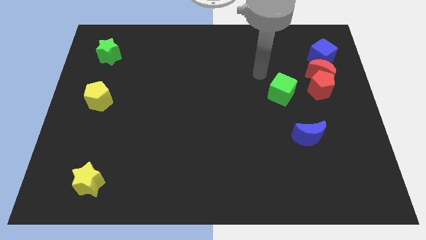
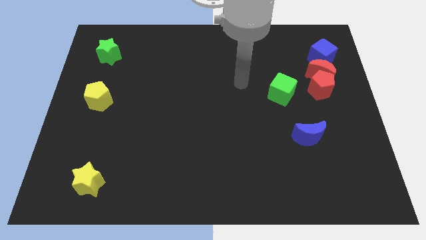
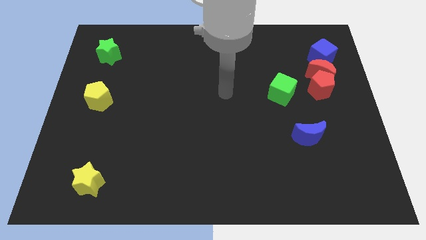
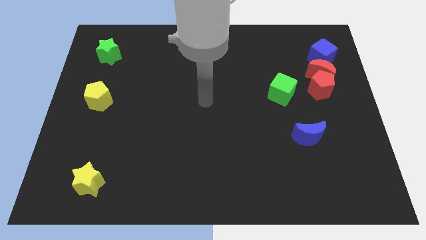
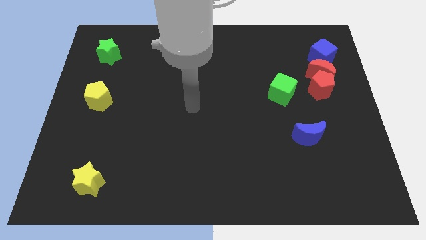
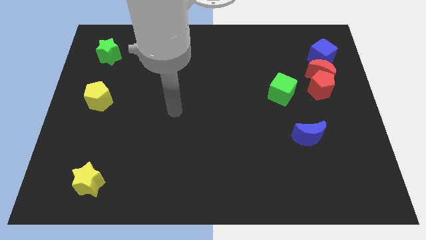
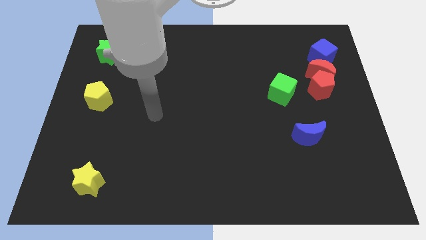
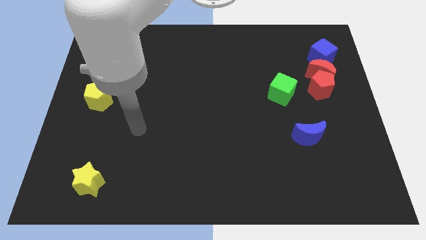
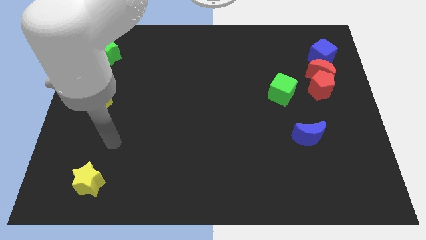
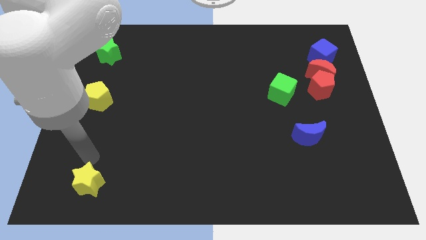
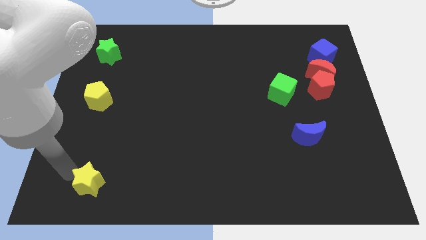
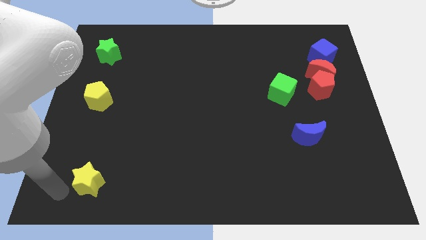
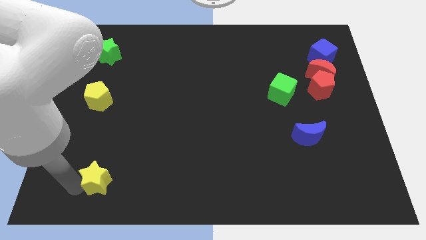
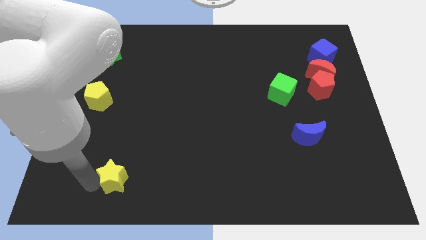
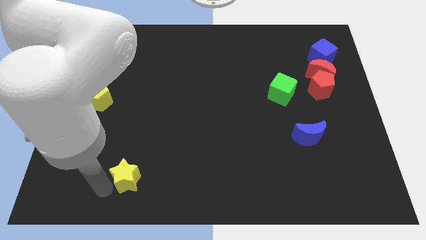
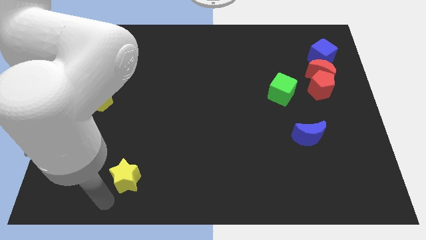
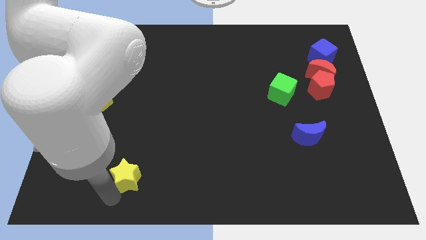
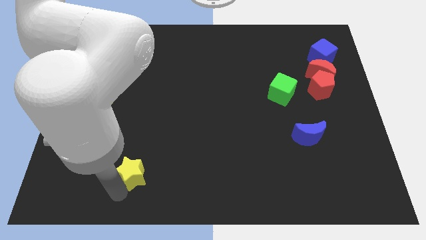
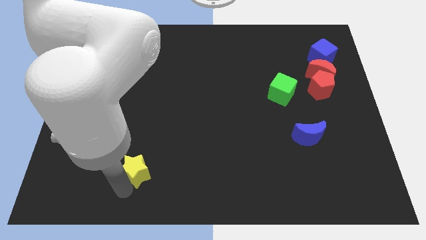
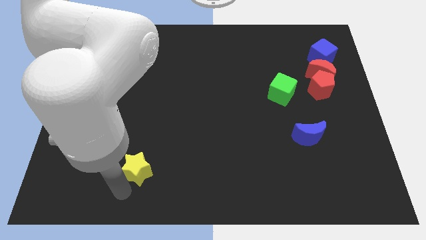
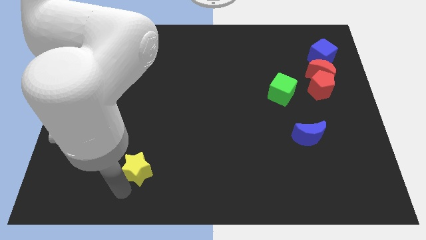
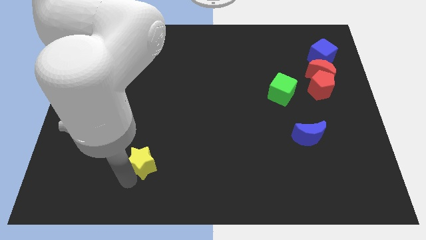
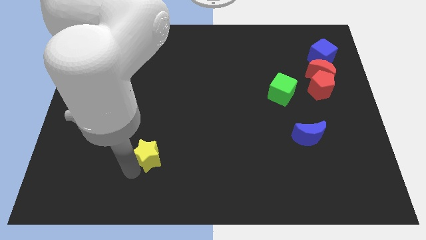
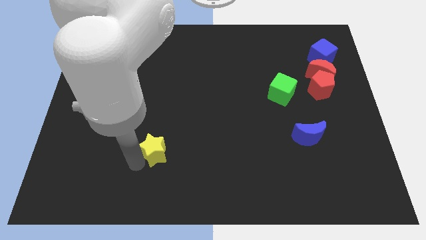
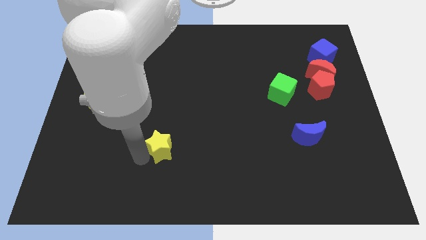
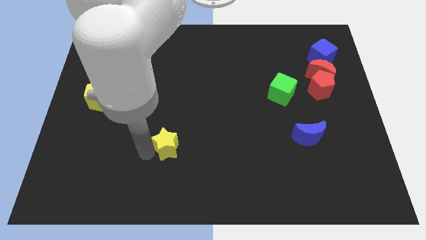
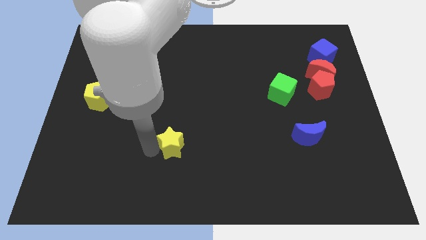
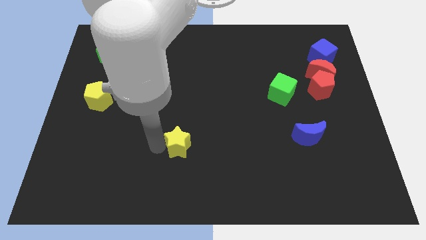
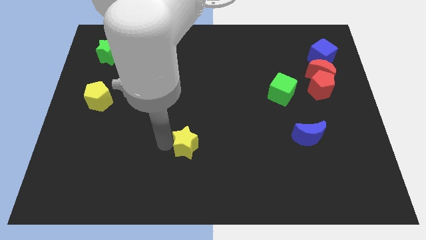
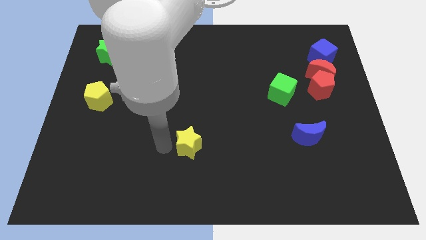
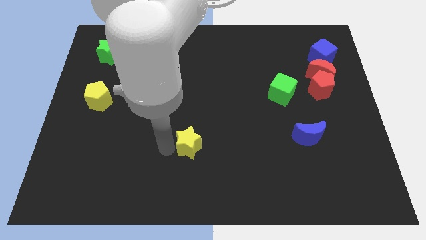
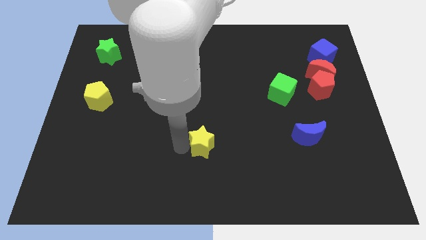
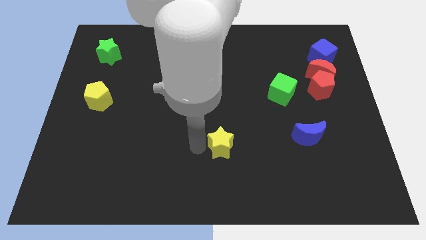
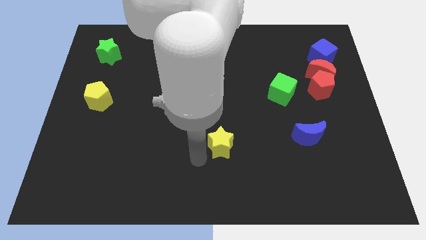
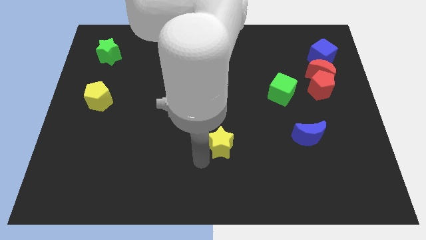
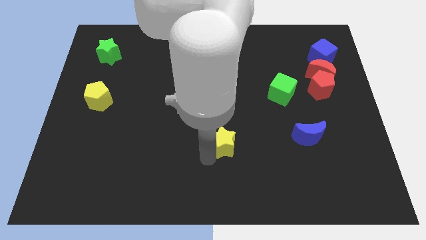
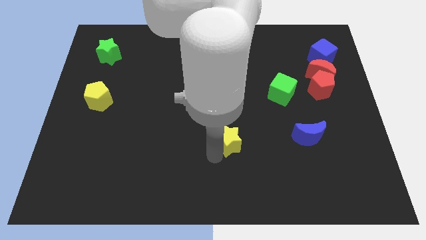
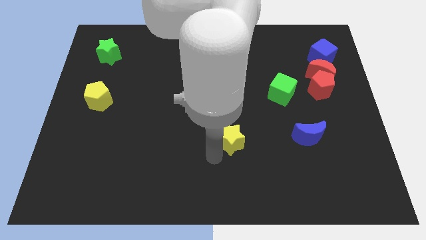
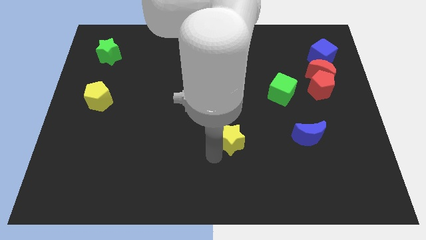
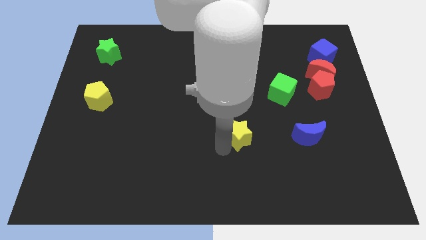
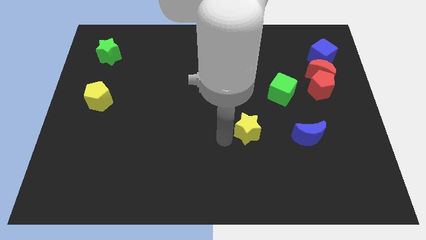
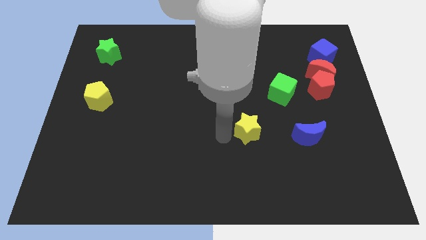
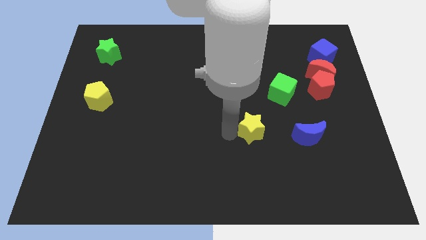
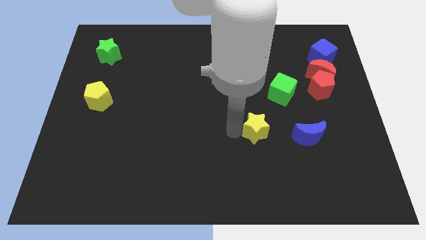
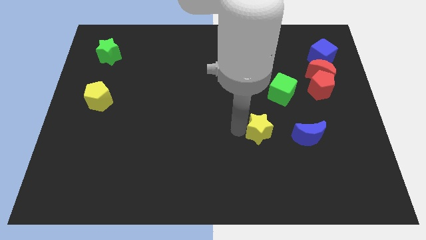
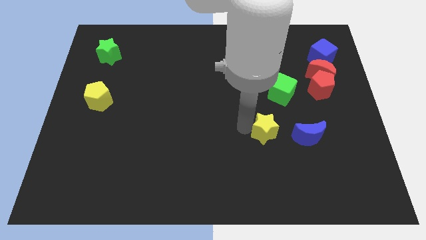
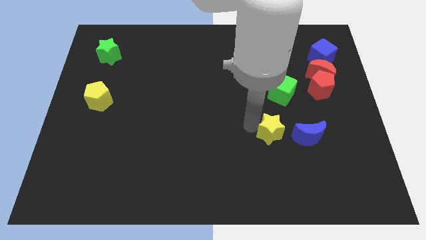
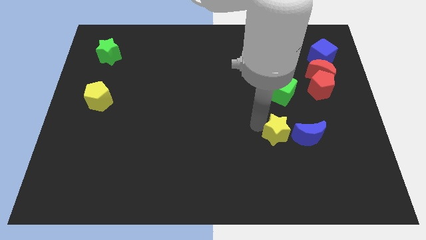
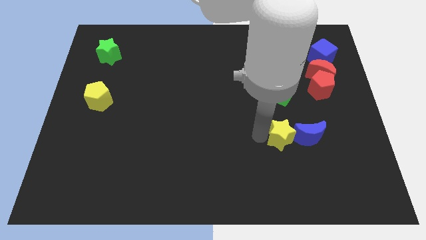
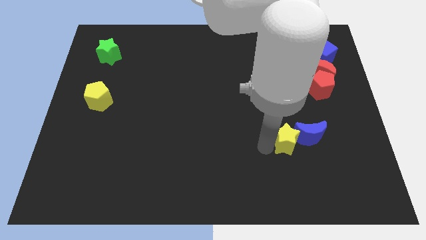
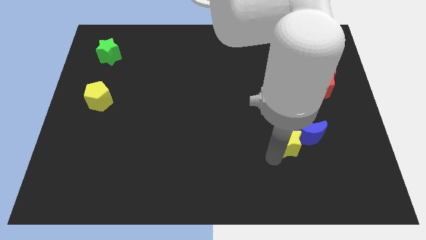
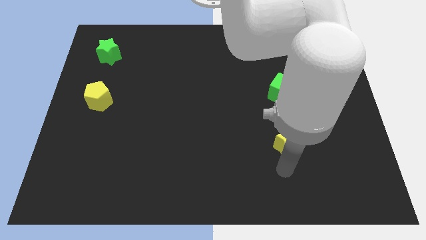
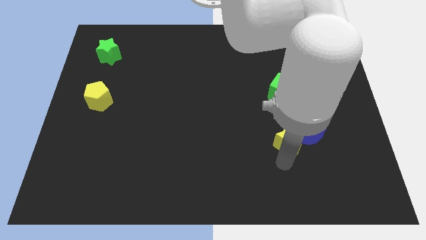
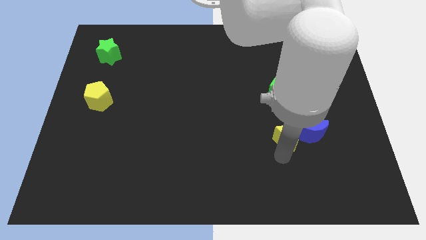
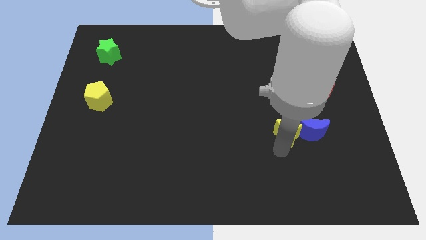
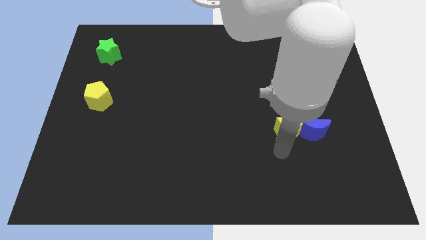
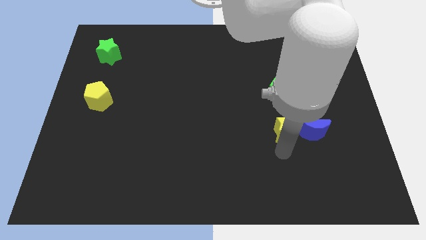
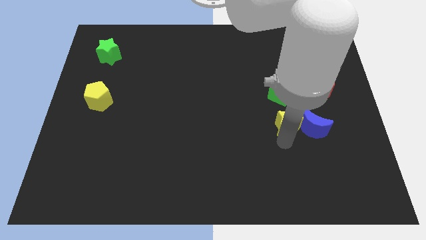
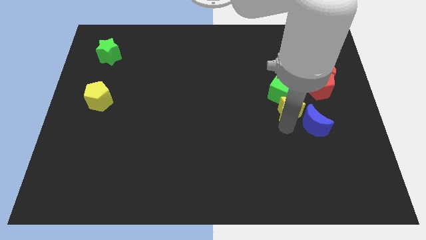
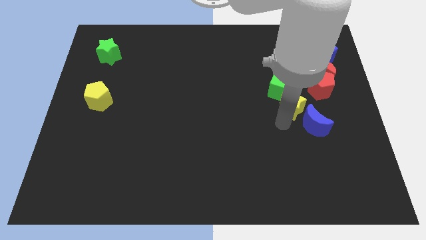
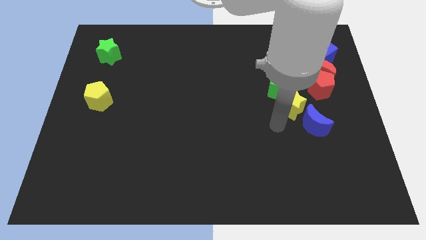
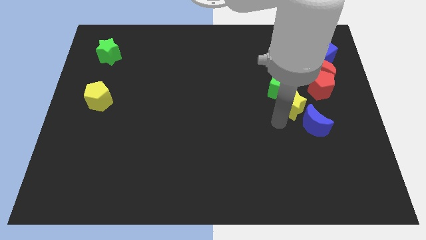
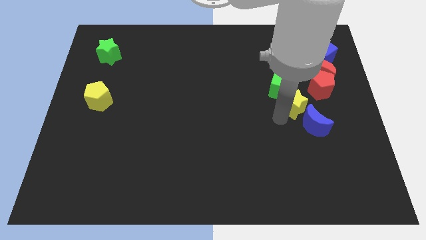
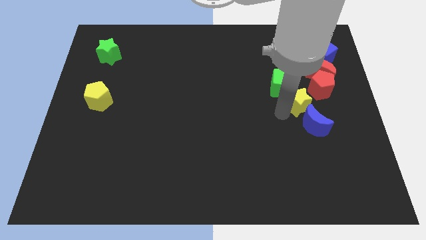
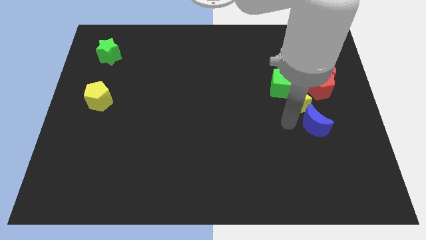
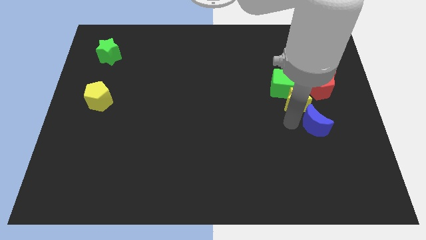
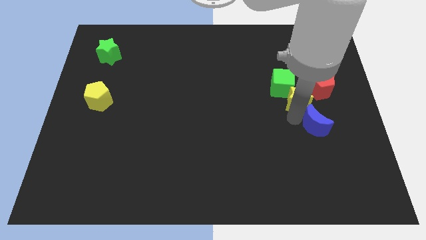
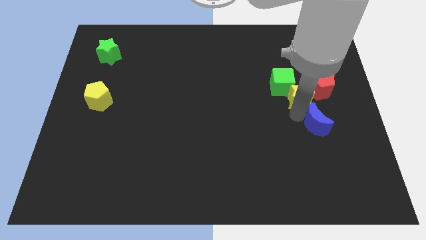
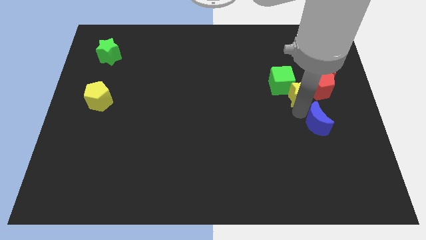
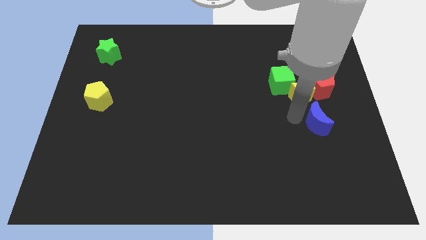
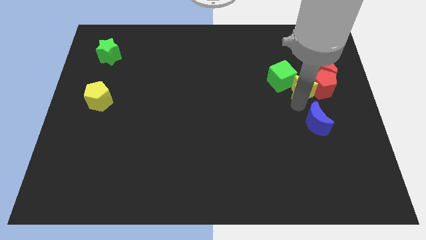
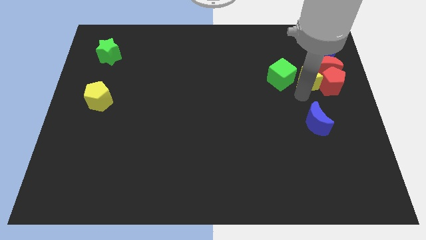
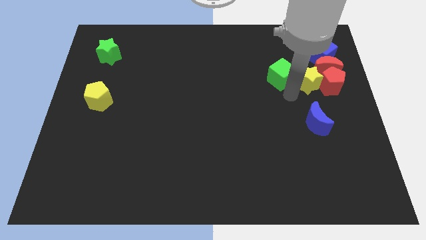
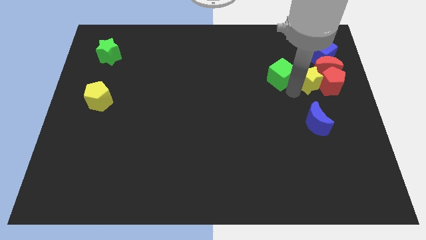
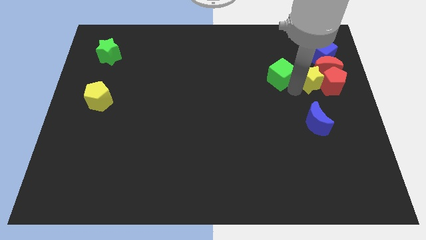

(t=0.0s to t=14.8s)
slide the yellow star next to the red moon

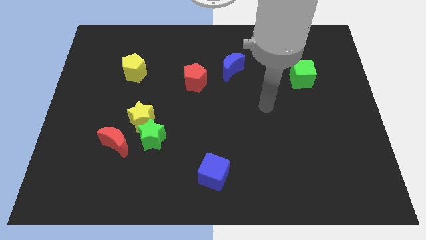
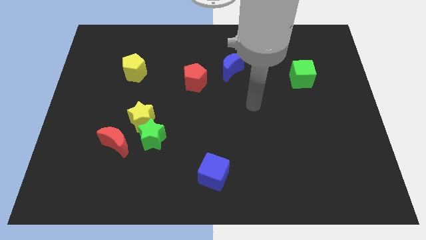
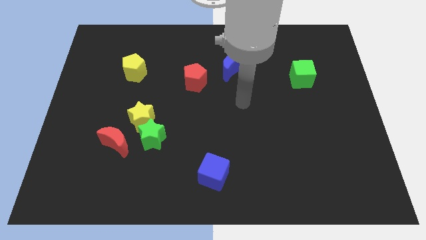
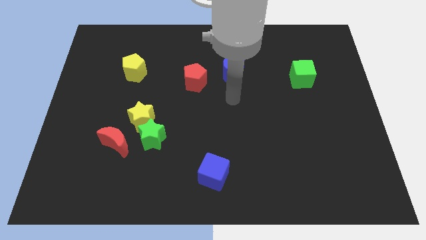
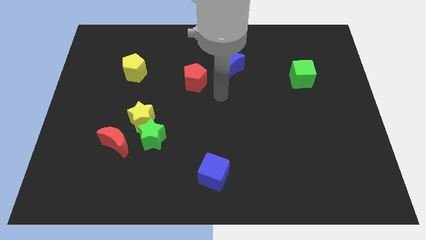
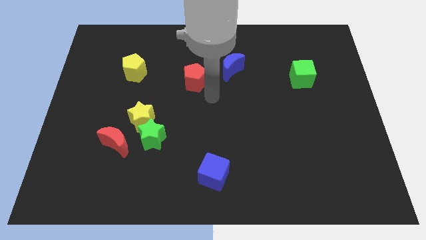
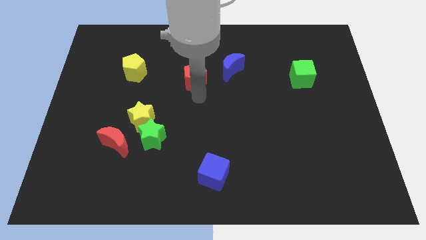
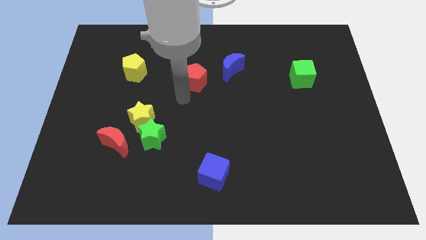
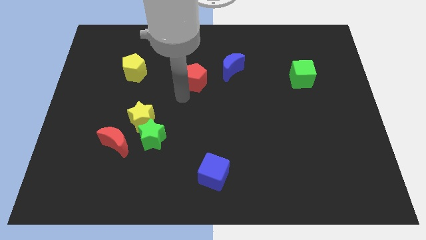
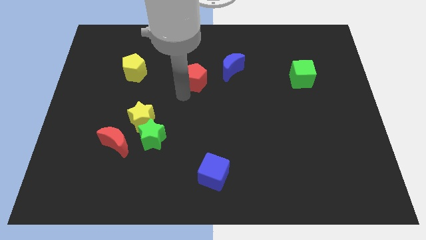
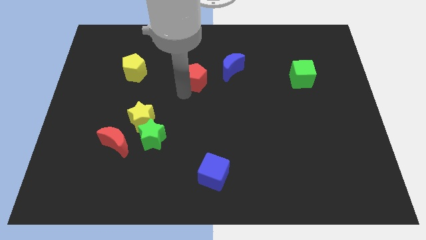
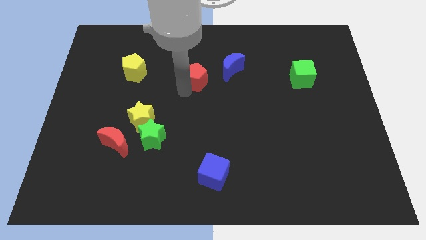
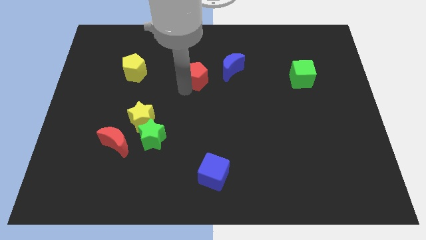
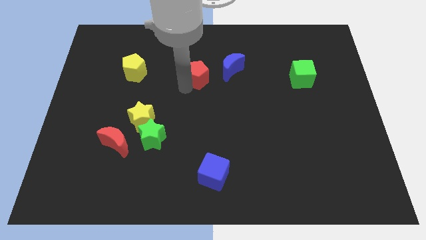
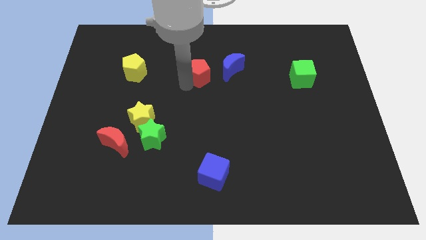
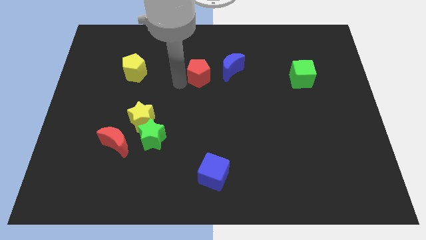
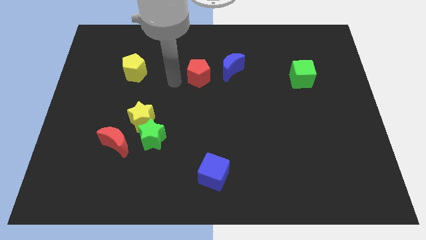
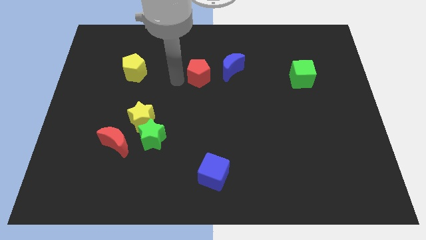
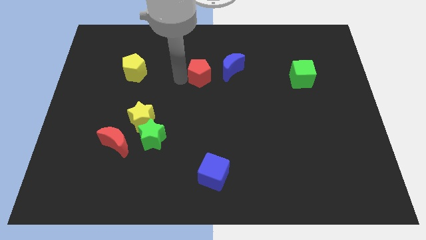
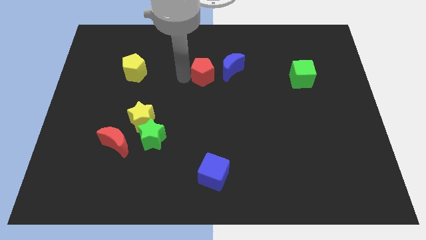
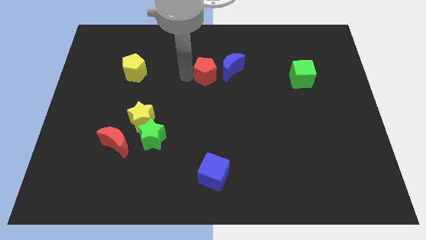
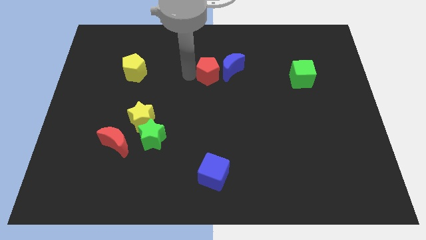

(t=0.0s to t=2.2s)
move the red pentagon next to the blue moon
